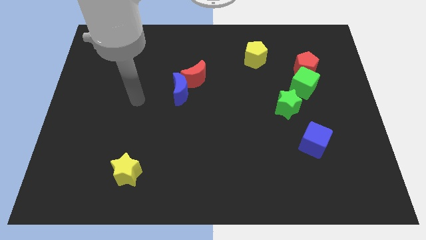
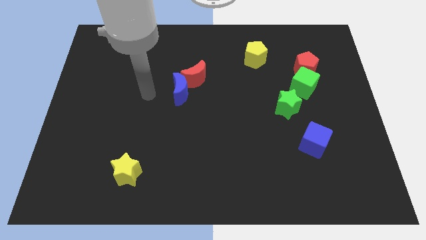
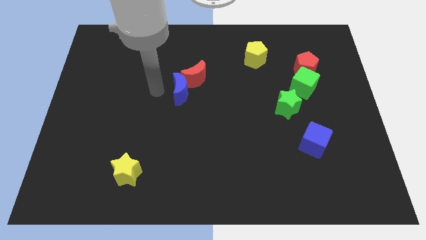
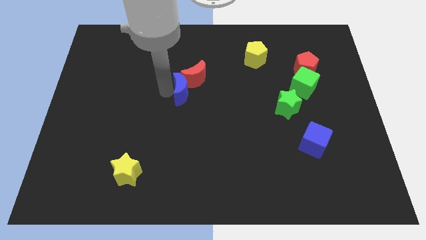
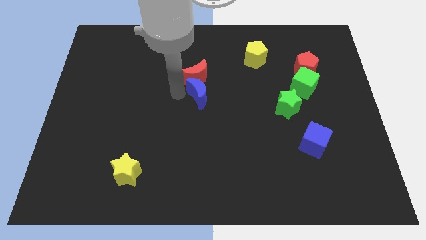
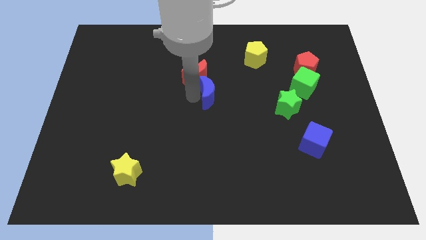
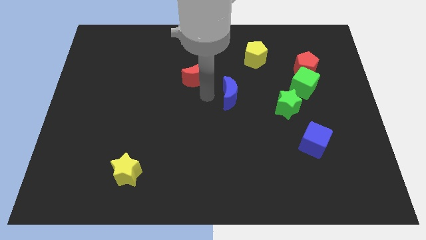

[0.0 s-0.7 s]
pull the red moon apart from the blue moon

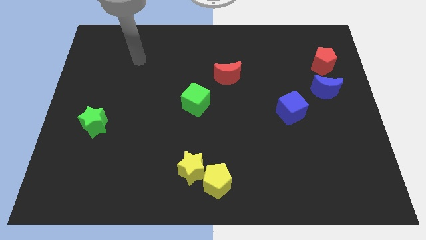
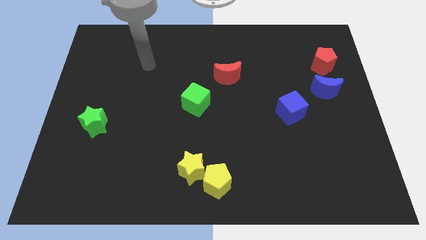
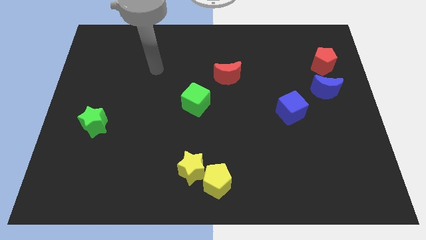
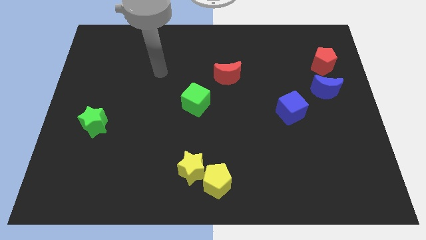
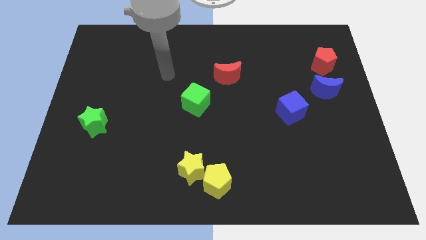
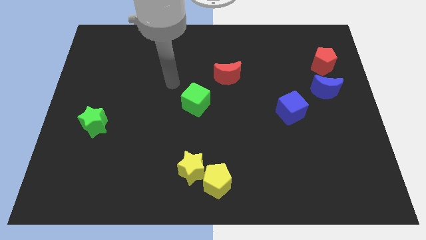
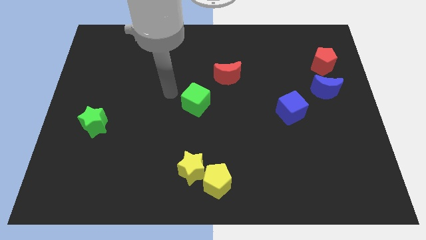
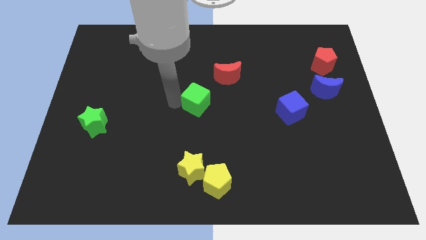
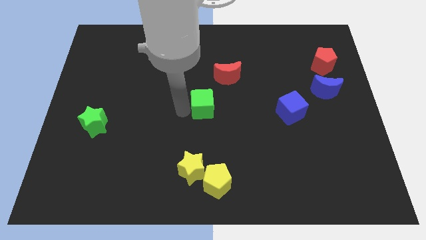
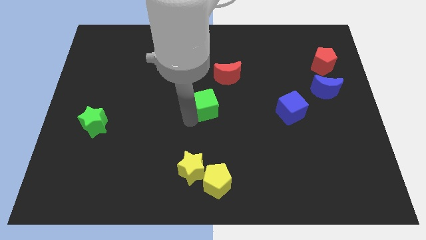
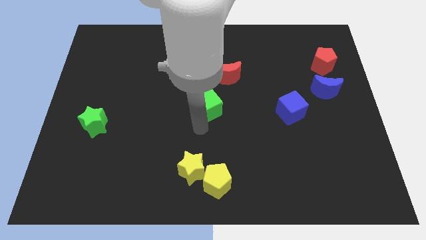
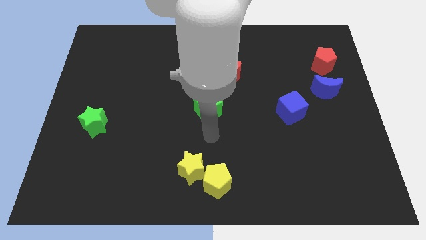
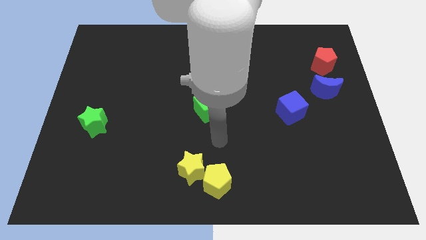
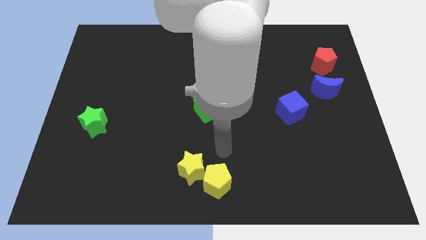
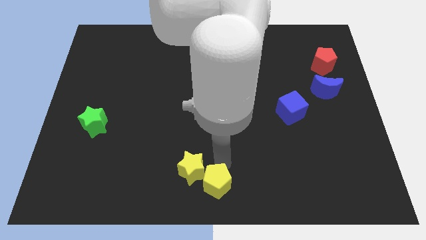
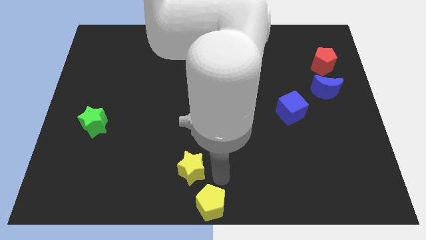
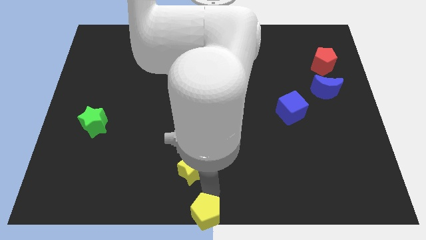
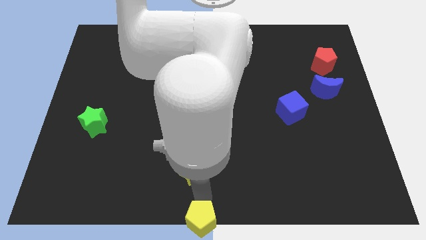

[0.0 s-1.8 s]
separate the yellow star from the yellow pentagon

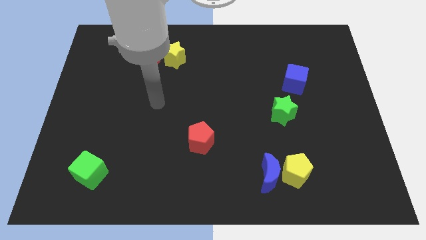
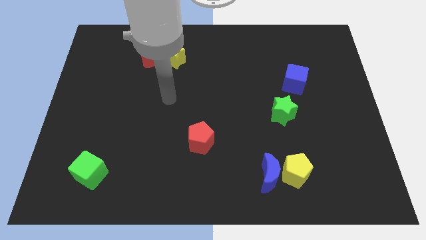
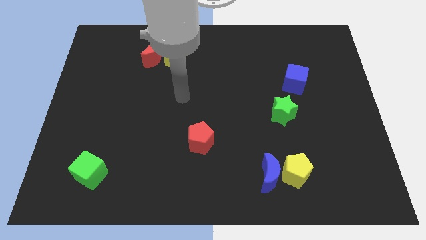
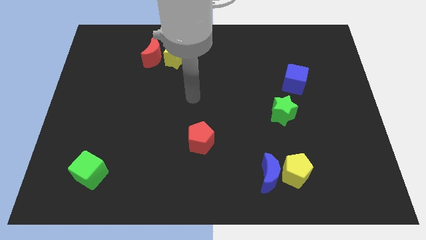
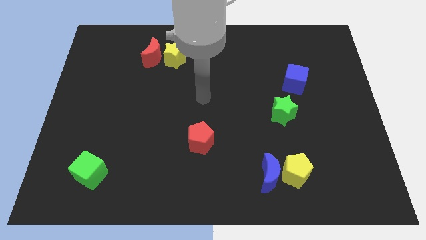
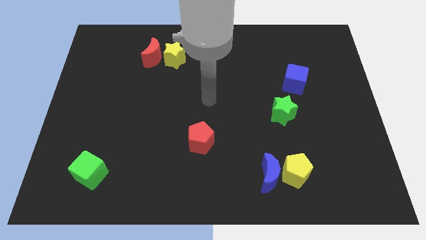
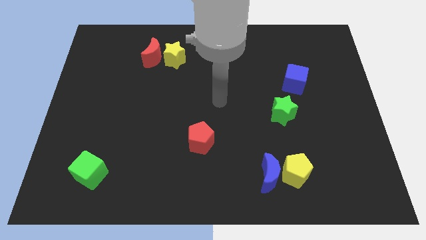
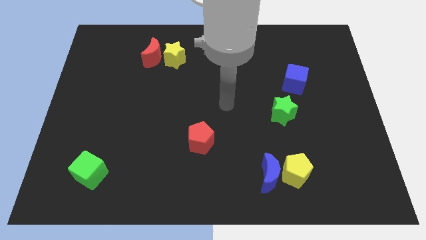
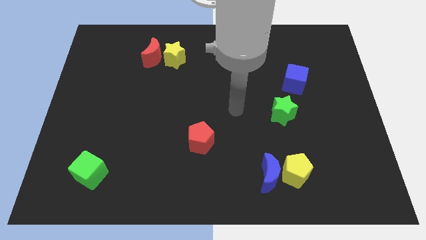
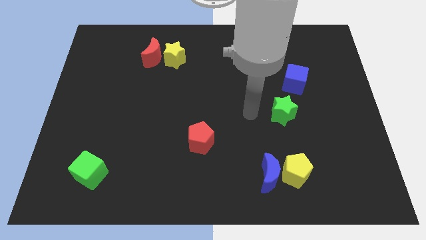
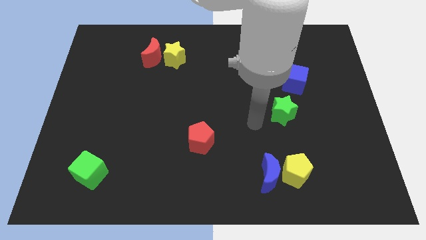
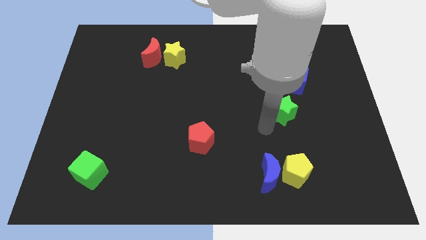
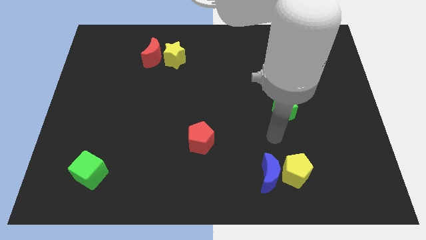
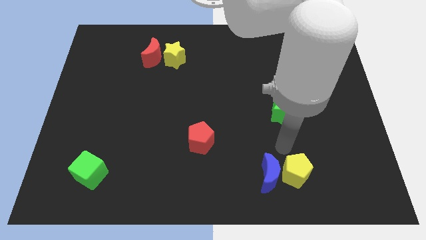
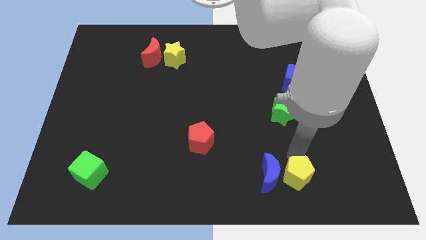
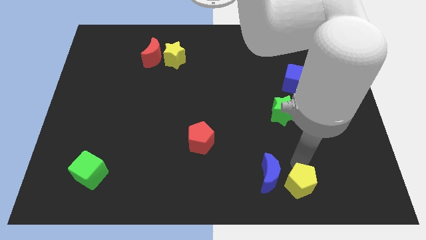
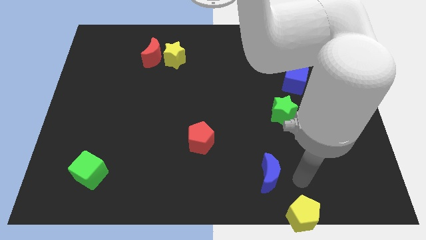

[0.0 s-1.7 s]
separate the blue moon from the yellow pentagon

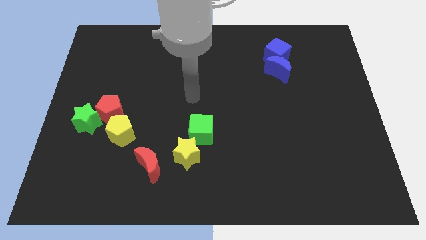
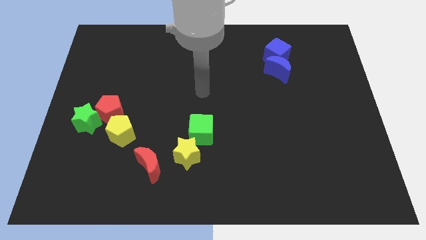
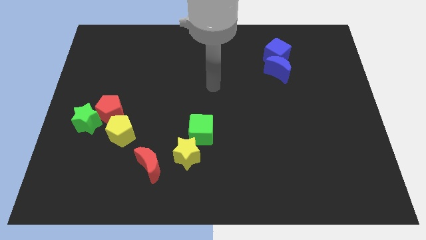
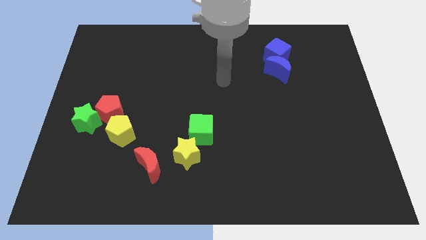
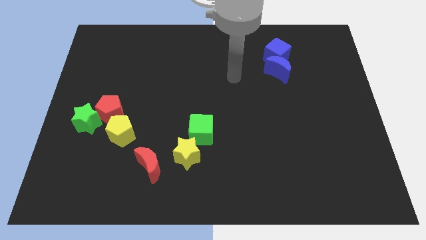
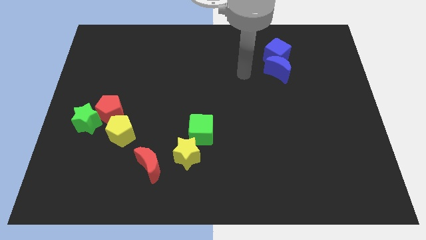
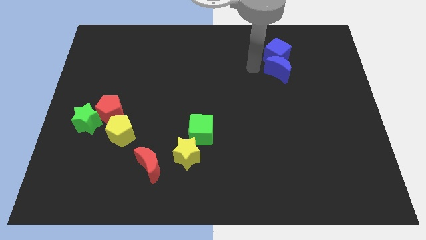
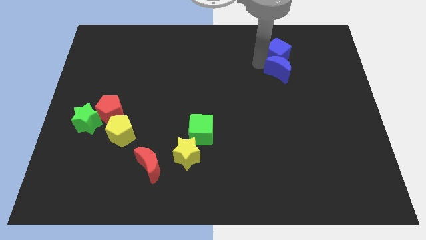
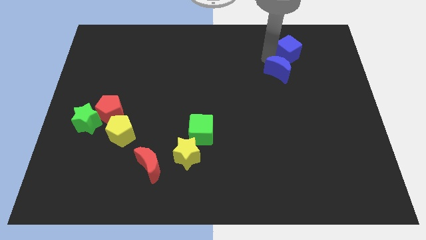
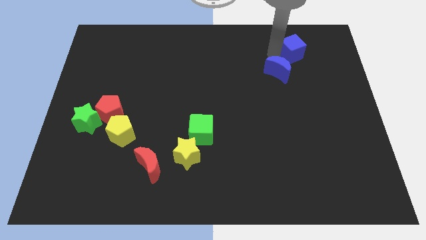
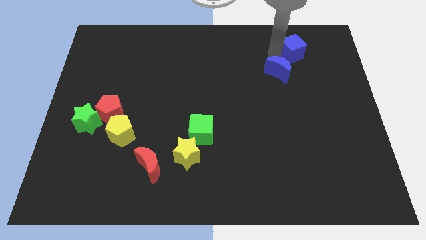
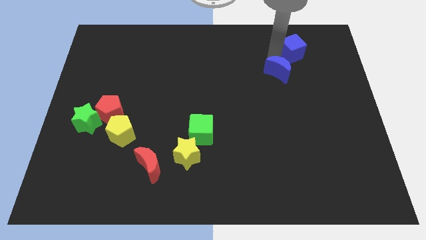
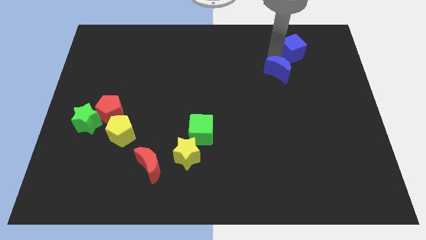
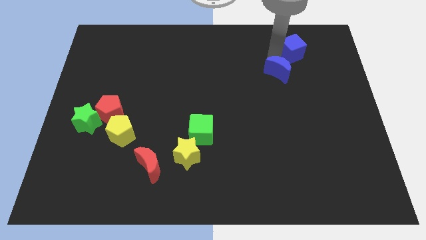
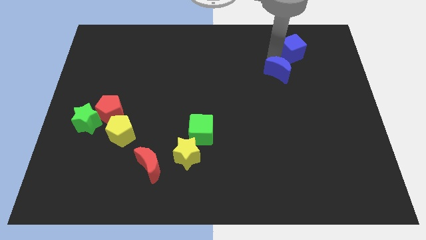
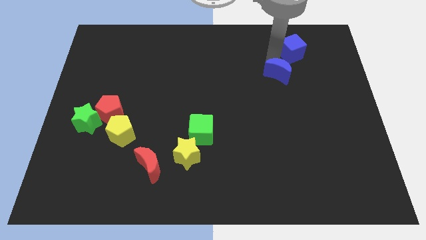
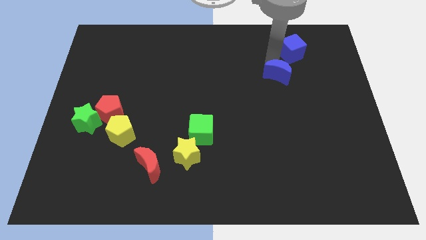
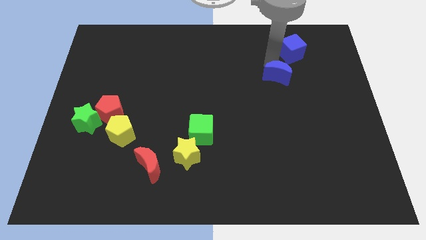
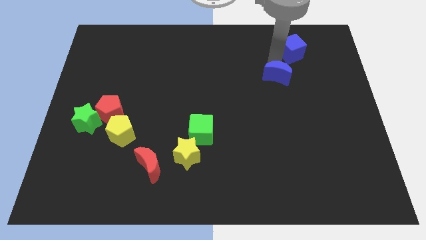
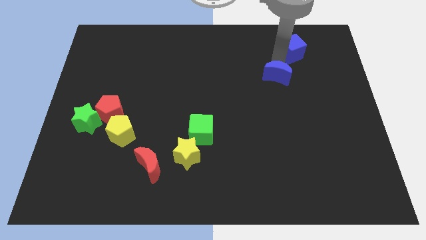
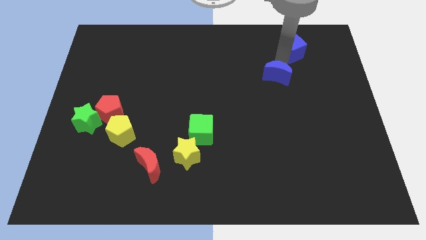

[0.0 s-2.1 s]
move the blue moon away from the blue cube

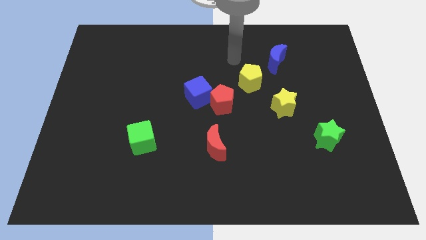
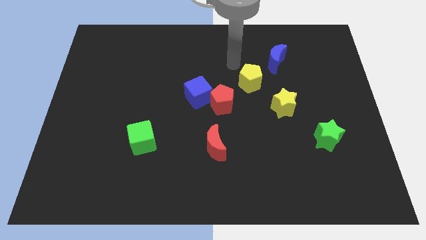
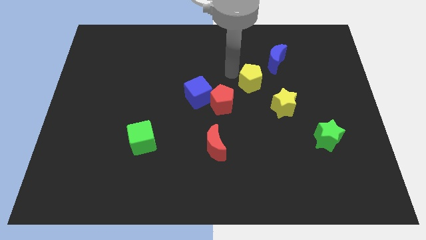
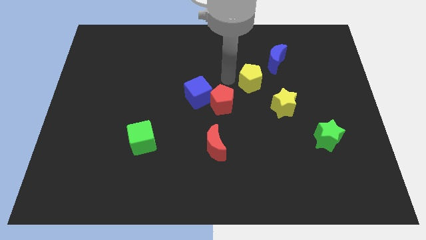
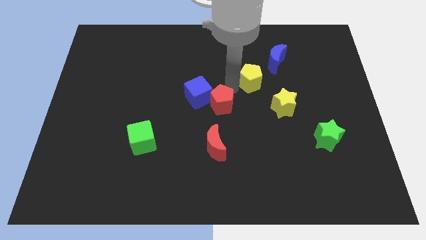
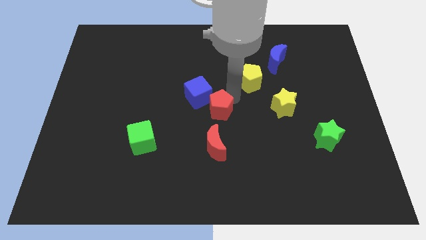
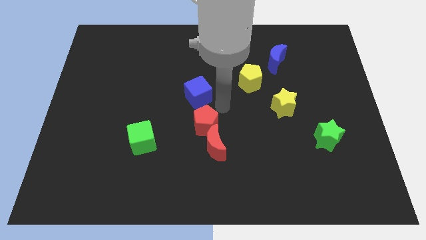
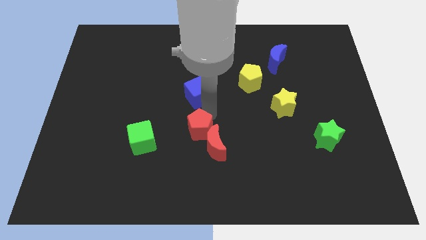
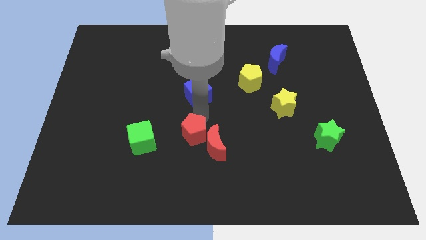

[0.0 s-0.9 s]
pull the blue cube apart from the red pentagon

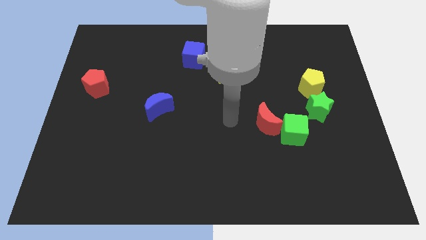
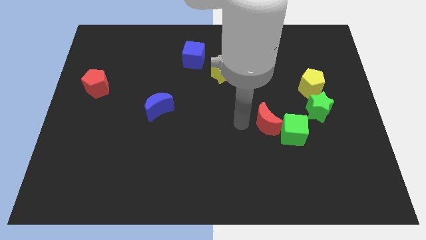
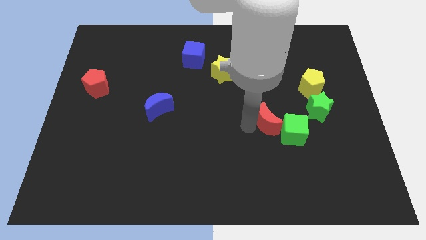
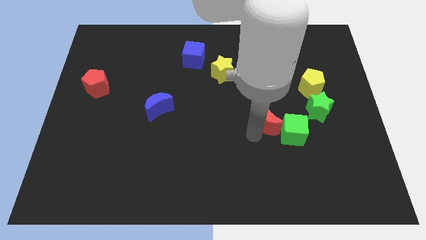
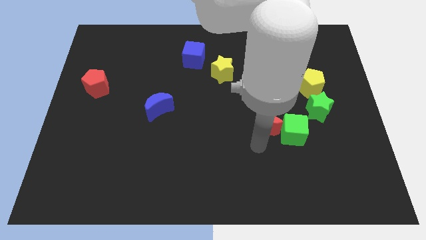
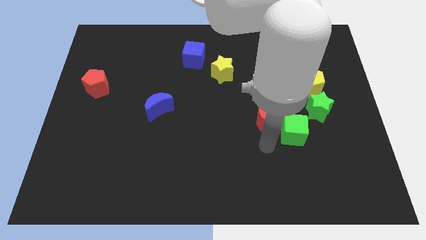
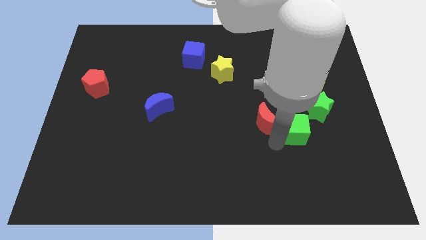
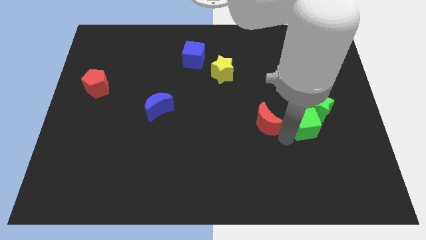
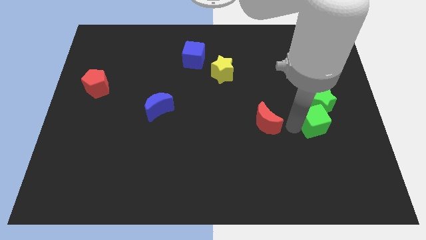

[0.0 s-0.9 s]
move the red moon away from the green cube

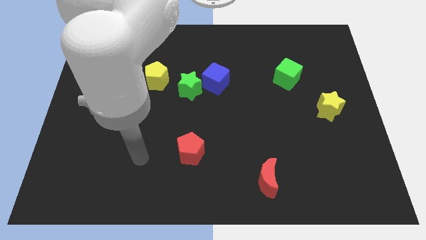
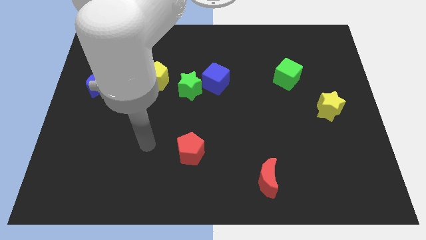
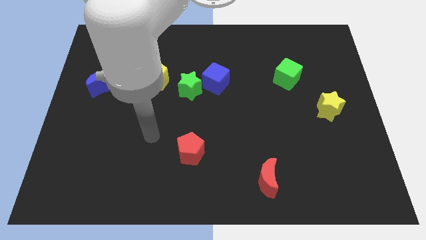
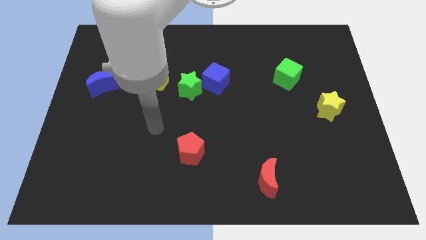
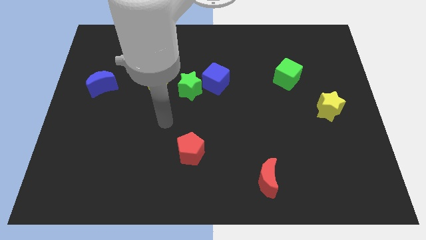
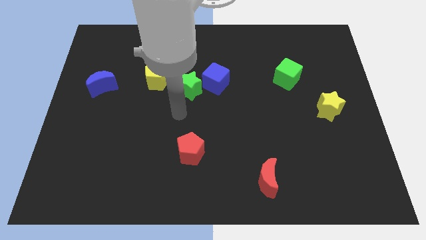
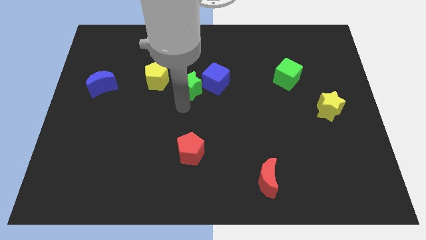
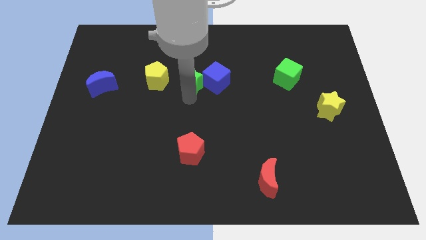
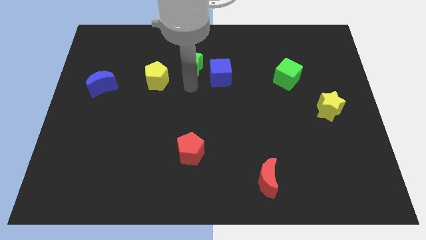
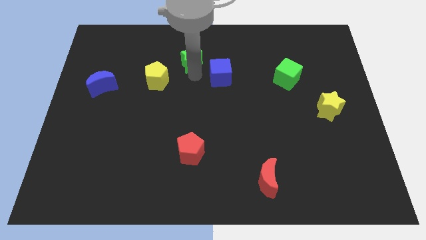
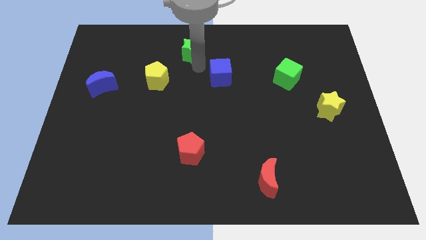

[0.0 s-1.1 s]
move the blue cube away from the green star

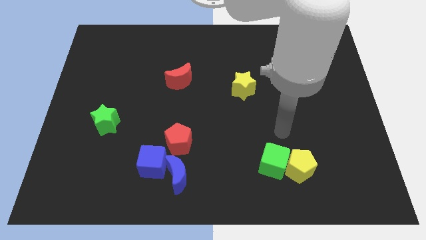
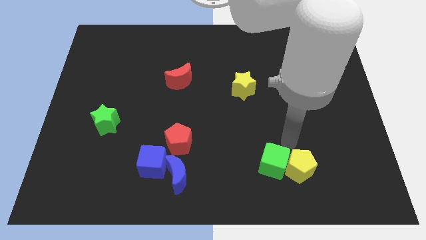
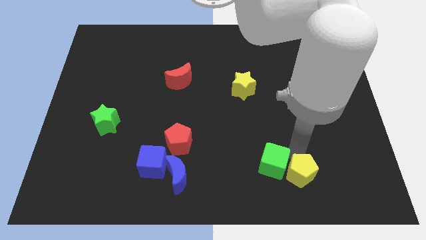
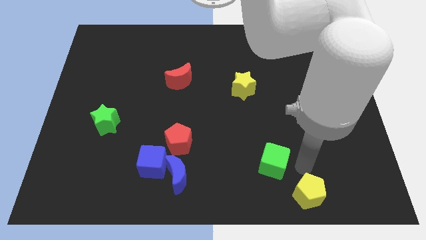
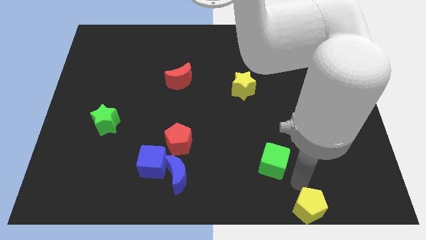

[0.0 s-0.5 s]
move the green cube away from the yellow pentagon
